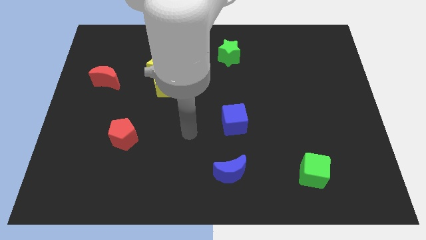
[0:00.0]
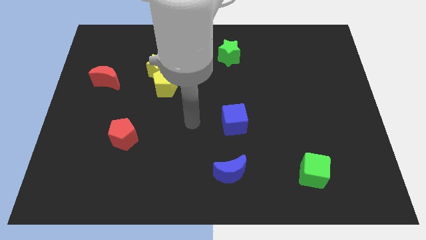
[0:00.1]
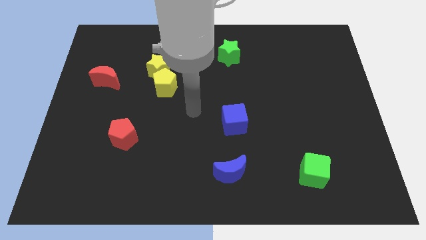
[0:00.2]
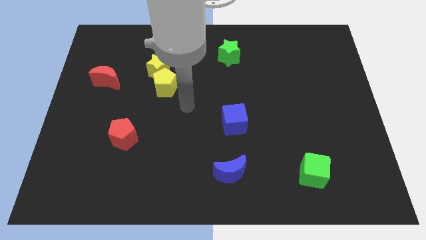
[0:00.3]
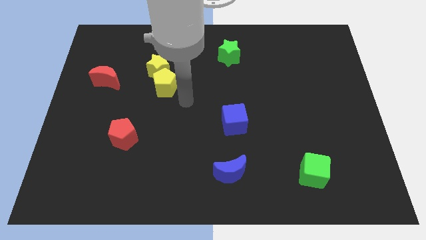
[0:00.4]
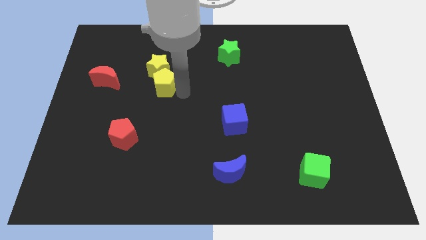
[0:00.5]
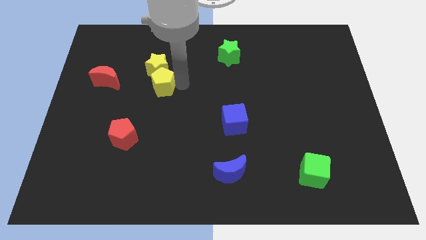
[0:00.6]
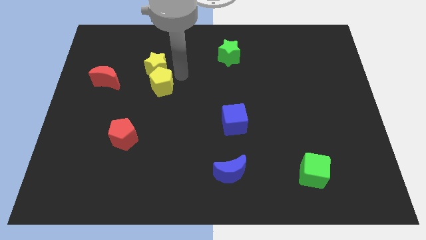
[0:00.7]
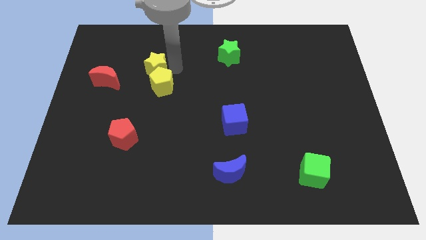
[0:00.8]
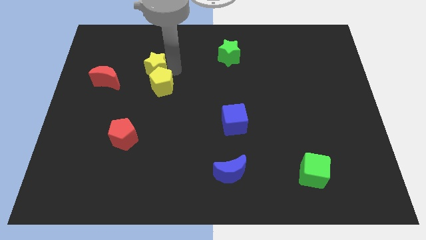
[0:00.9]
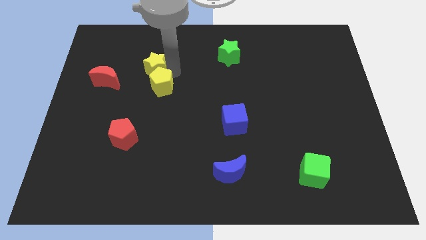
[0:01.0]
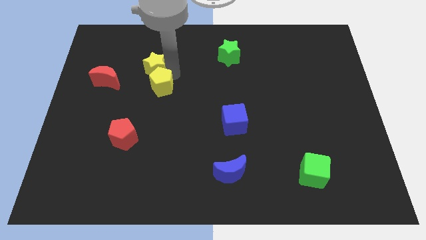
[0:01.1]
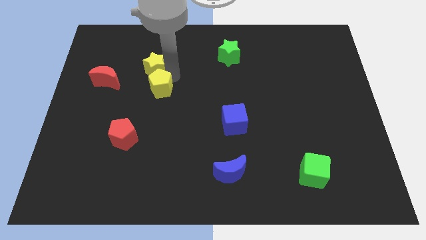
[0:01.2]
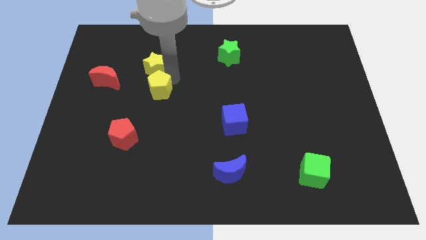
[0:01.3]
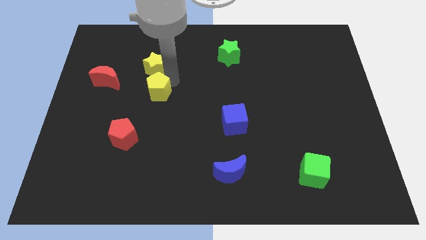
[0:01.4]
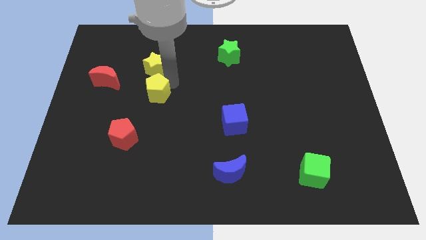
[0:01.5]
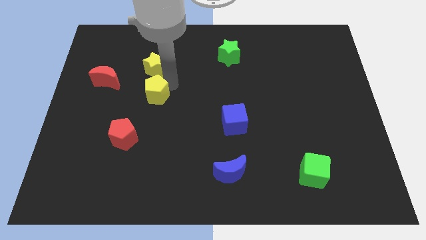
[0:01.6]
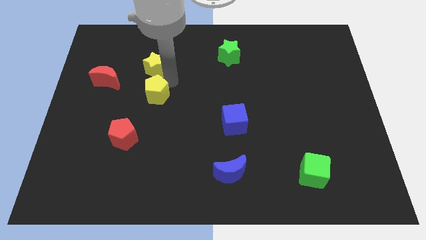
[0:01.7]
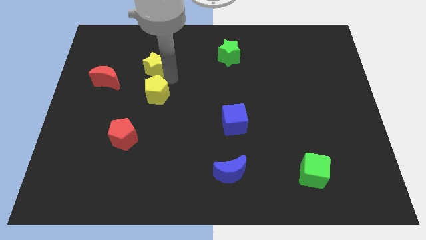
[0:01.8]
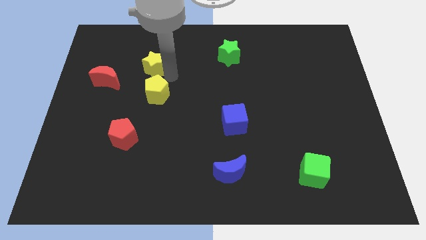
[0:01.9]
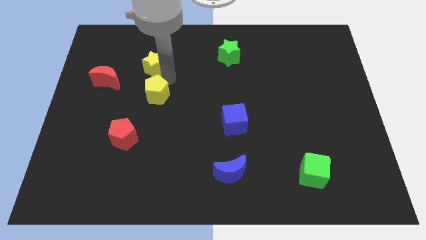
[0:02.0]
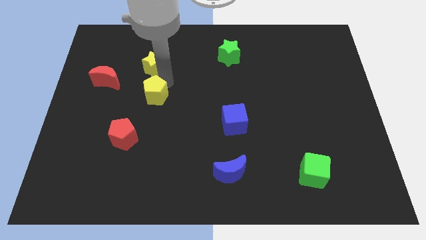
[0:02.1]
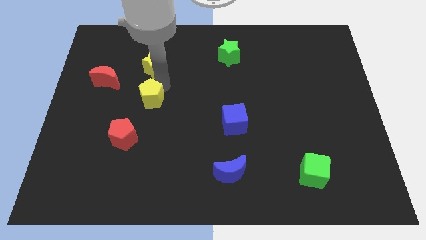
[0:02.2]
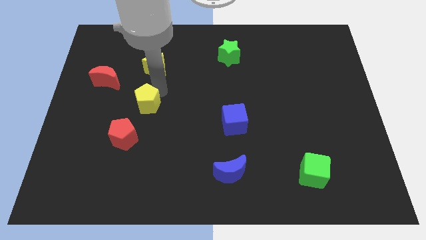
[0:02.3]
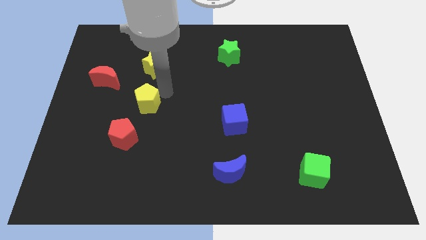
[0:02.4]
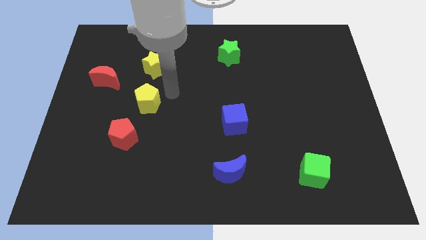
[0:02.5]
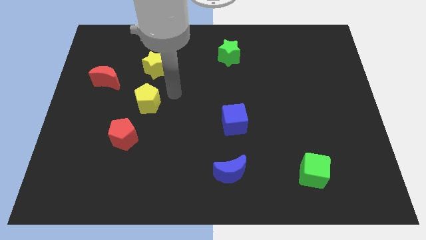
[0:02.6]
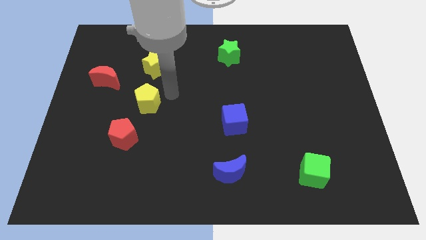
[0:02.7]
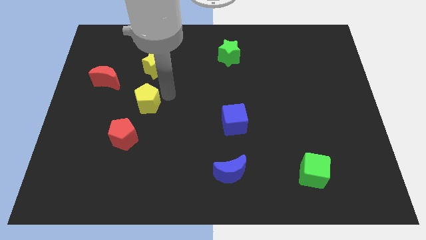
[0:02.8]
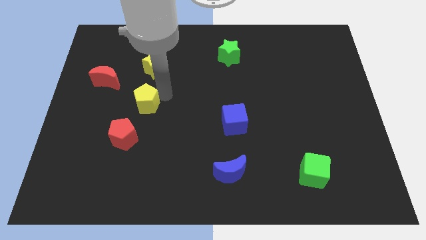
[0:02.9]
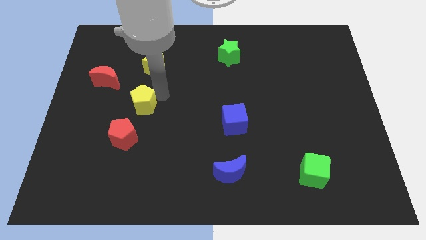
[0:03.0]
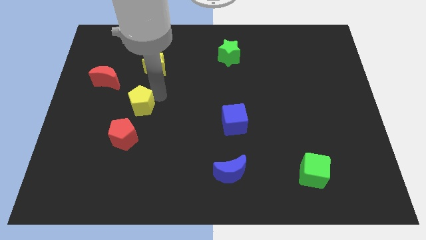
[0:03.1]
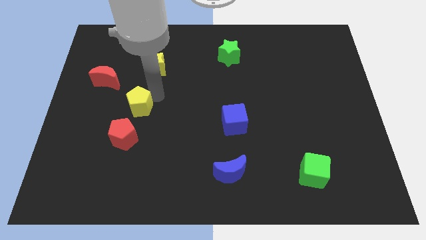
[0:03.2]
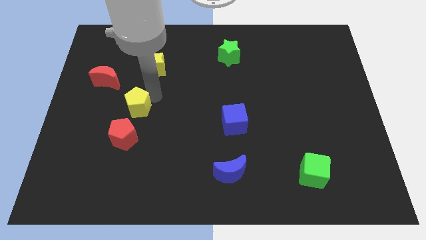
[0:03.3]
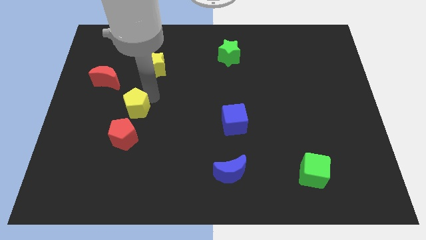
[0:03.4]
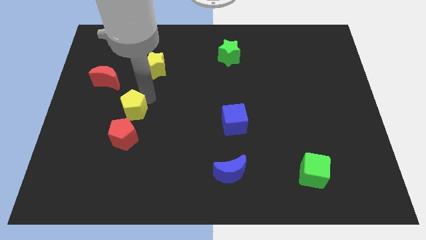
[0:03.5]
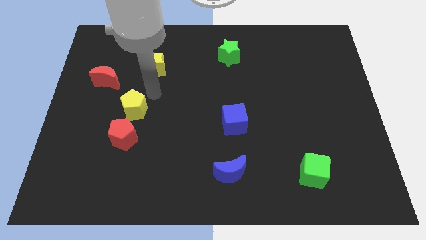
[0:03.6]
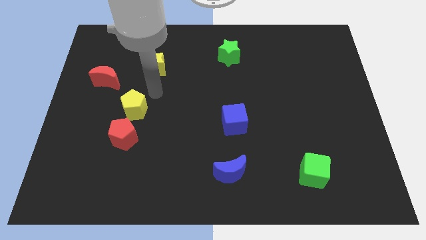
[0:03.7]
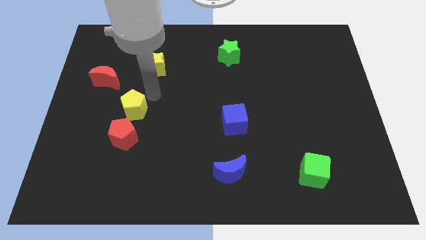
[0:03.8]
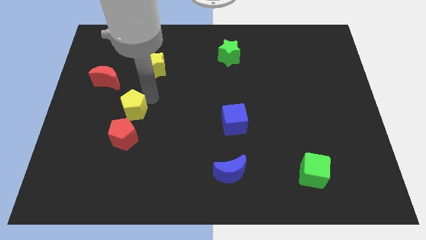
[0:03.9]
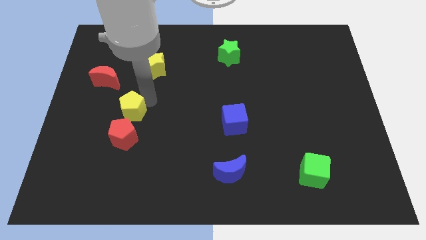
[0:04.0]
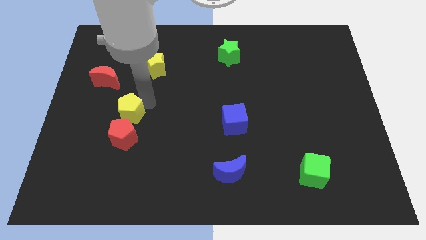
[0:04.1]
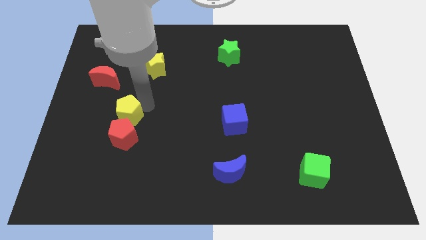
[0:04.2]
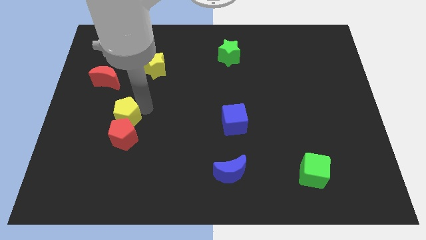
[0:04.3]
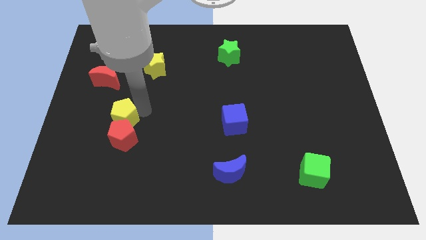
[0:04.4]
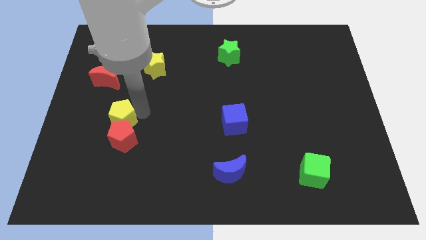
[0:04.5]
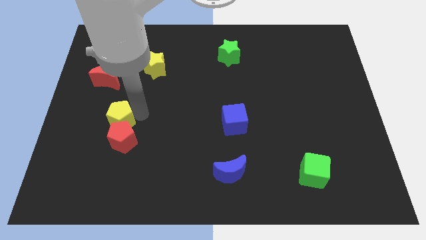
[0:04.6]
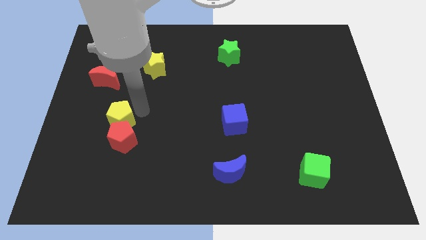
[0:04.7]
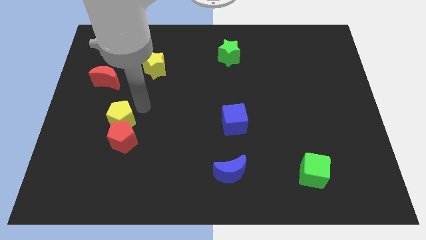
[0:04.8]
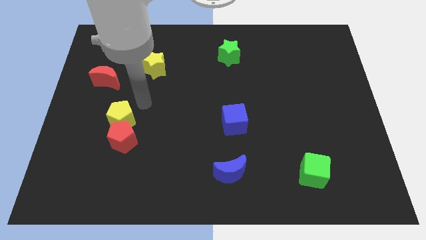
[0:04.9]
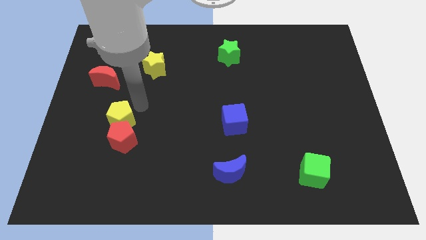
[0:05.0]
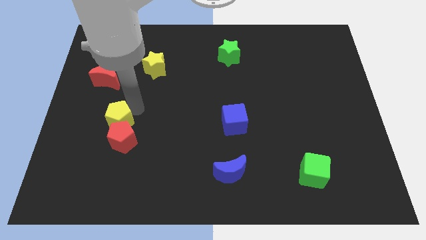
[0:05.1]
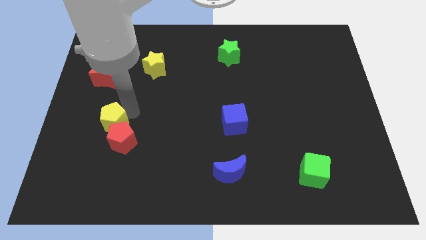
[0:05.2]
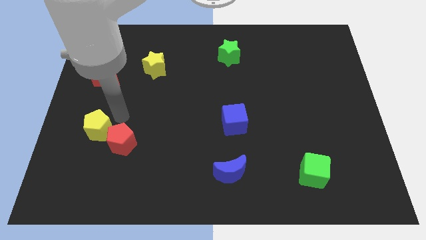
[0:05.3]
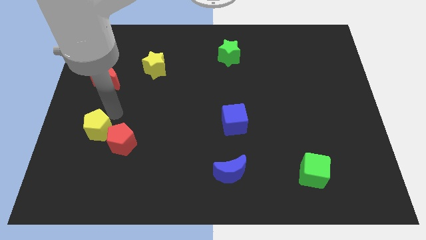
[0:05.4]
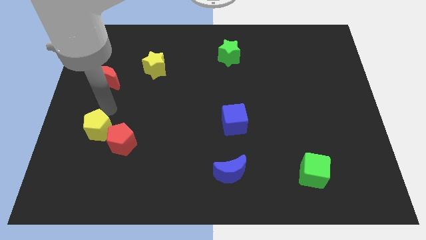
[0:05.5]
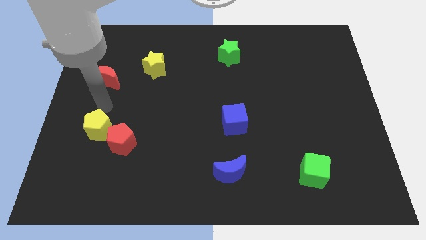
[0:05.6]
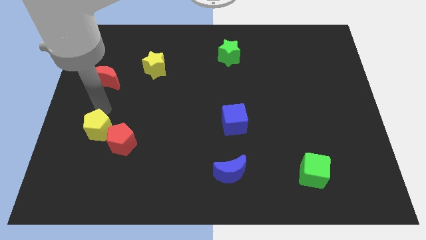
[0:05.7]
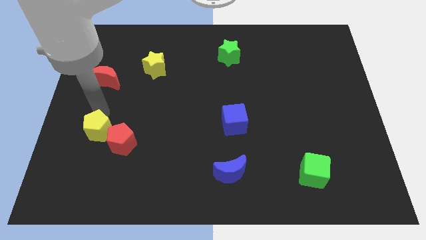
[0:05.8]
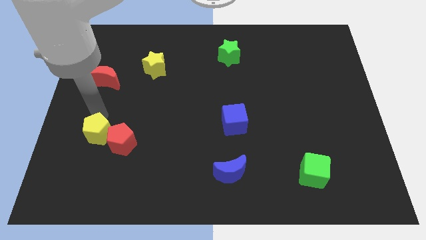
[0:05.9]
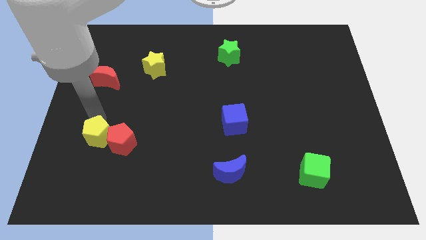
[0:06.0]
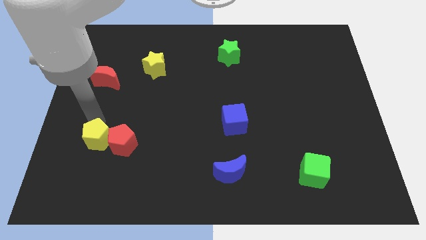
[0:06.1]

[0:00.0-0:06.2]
put the yellow pentagon diagonally down and to the left of the red pentagon

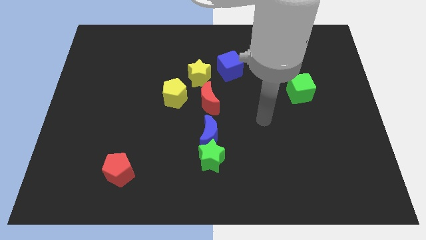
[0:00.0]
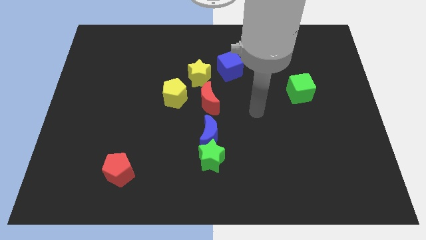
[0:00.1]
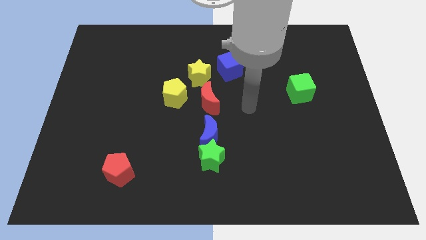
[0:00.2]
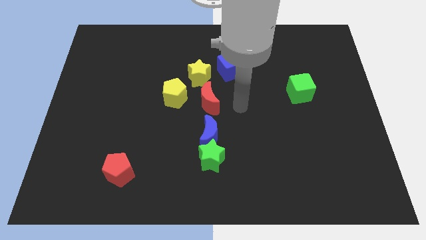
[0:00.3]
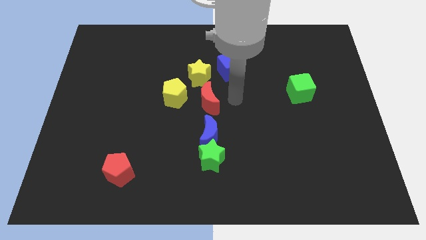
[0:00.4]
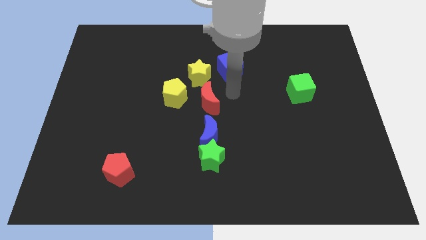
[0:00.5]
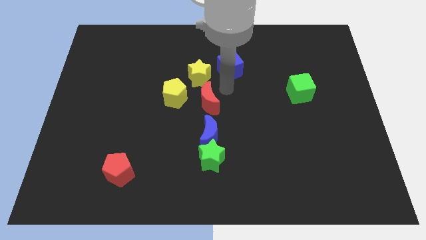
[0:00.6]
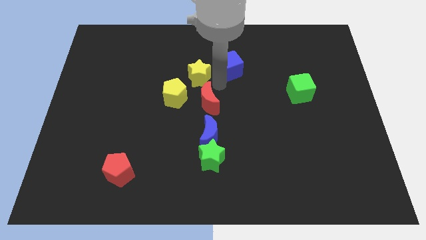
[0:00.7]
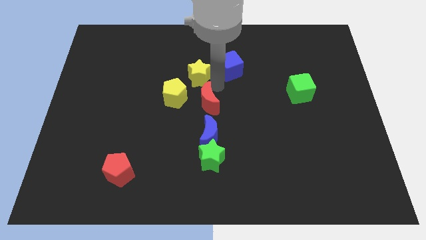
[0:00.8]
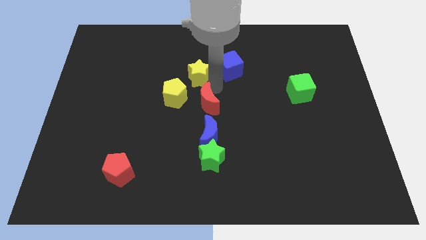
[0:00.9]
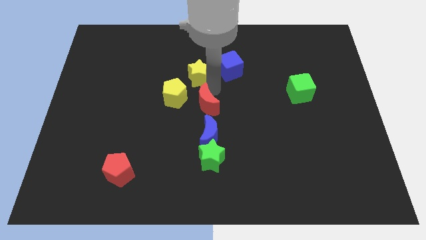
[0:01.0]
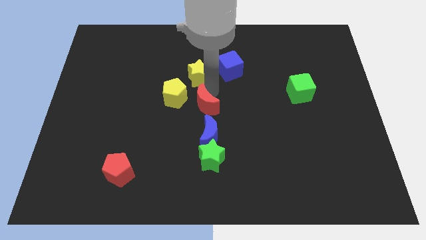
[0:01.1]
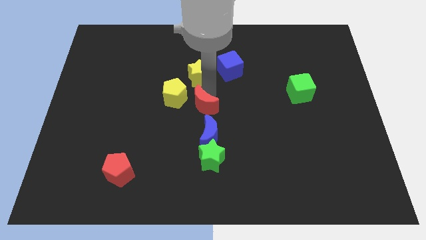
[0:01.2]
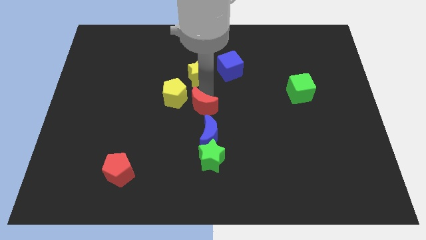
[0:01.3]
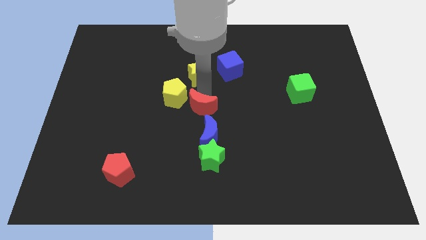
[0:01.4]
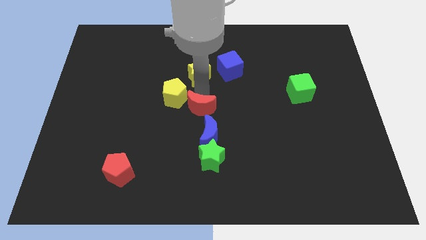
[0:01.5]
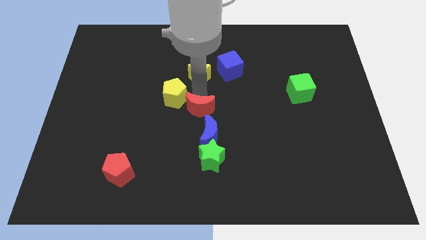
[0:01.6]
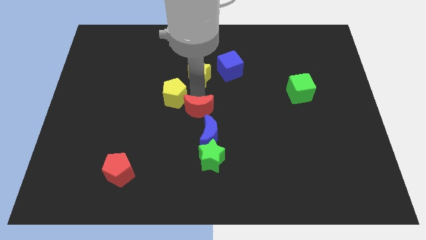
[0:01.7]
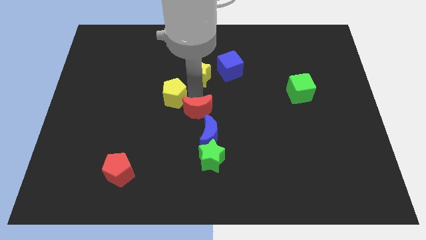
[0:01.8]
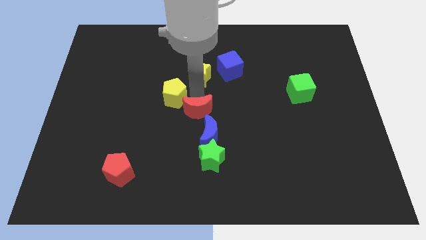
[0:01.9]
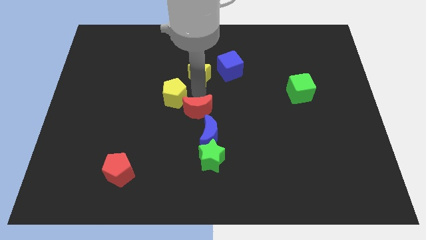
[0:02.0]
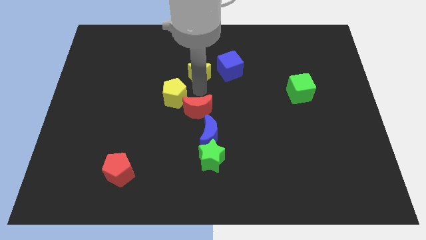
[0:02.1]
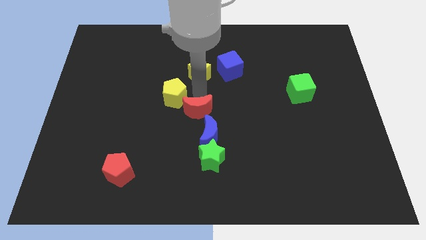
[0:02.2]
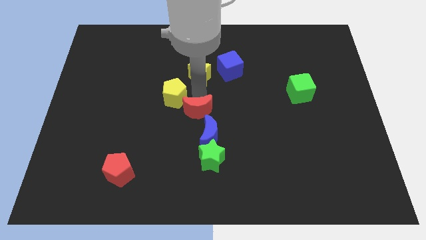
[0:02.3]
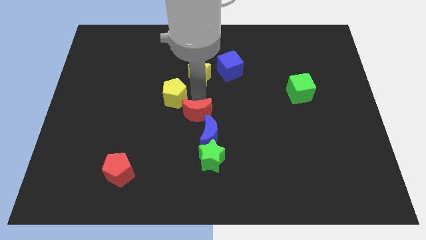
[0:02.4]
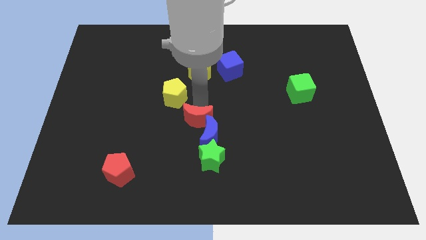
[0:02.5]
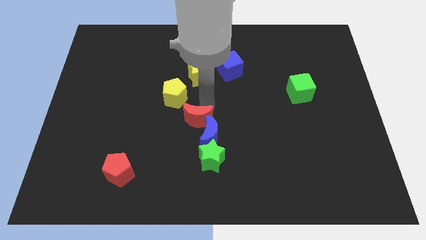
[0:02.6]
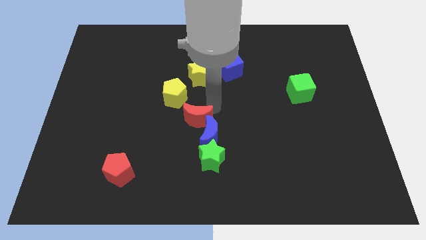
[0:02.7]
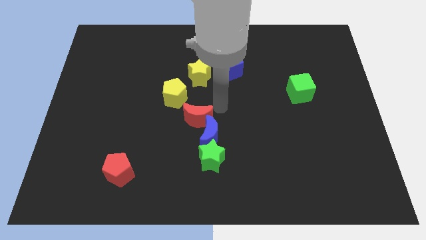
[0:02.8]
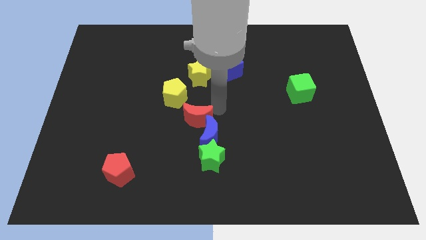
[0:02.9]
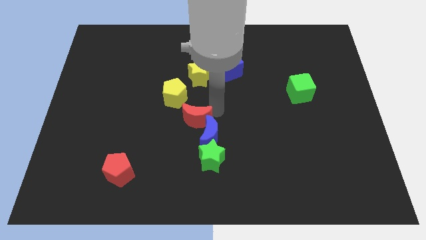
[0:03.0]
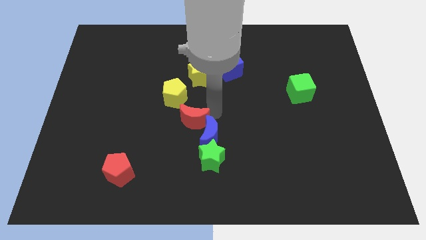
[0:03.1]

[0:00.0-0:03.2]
move the red moon to the bottom of the yellow pentagon
